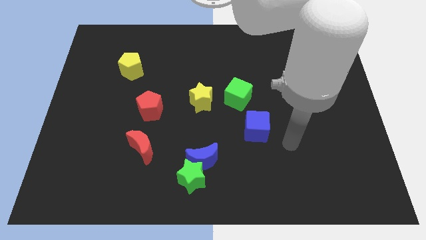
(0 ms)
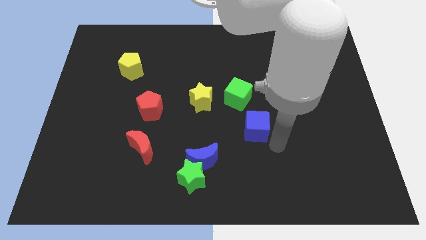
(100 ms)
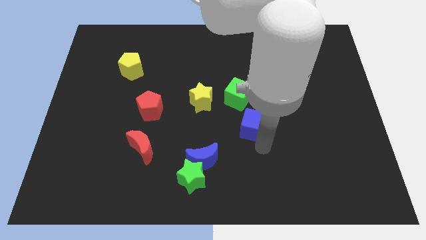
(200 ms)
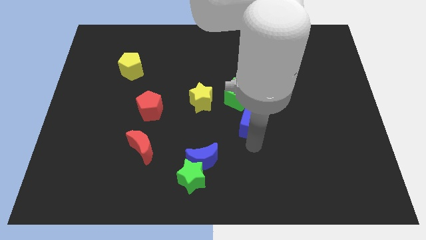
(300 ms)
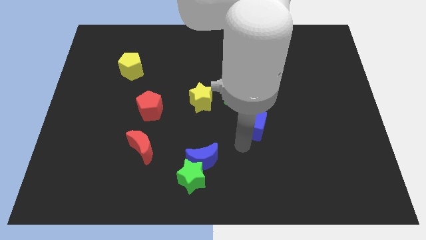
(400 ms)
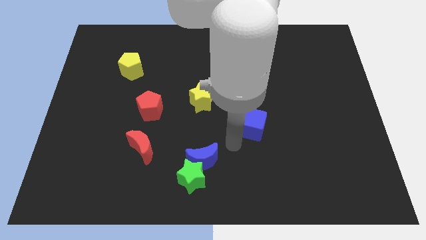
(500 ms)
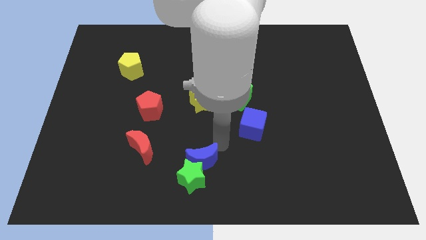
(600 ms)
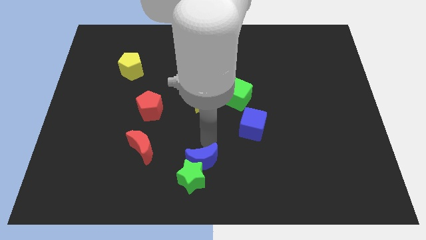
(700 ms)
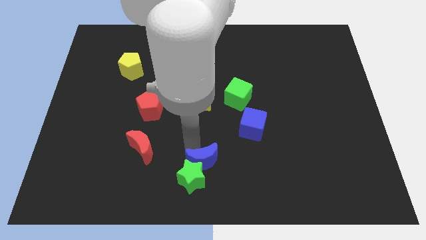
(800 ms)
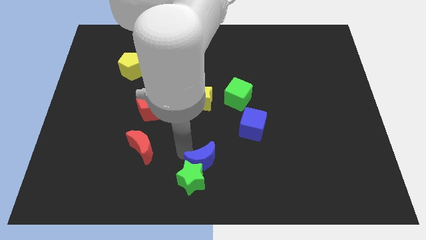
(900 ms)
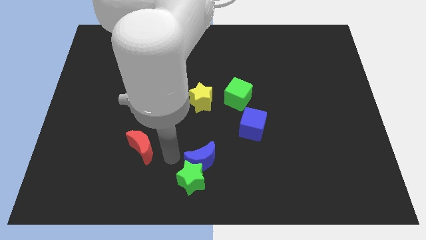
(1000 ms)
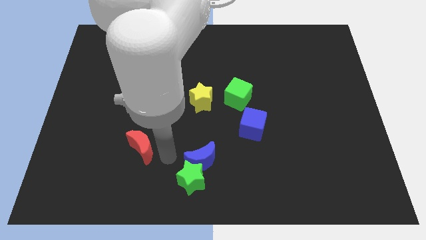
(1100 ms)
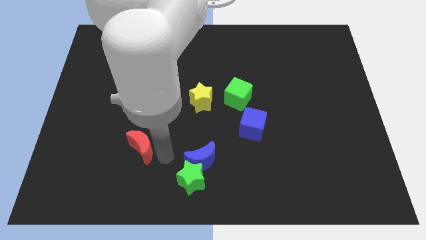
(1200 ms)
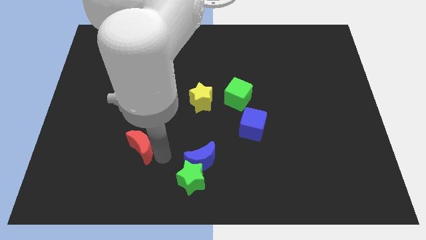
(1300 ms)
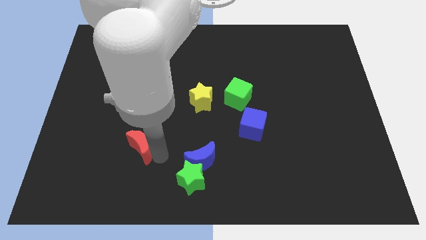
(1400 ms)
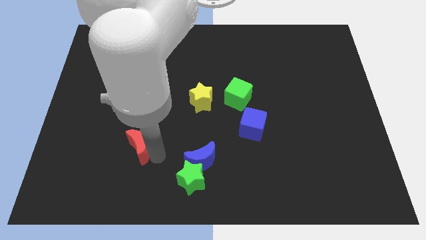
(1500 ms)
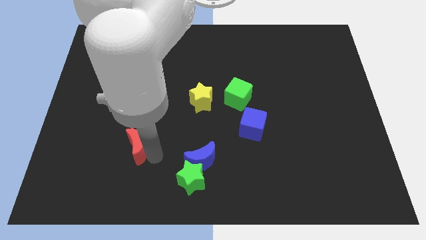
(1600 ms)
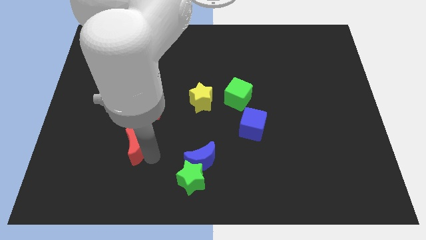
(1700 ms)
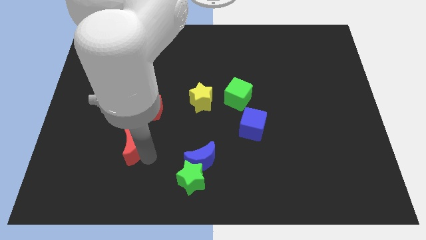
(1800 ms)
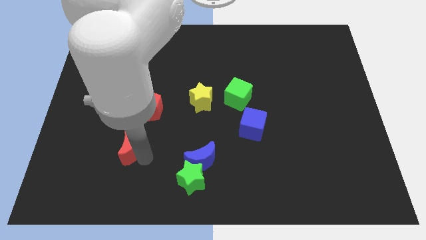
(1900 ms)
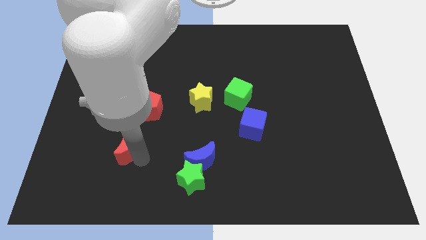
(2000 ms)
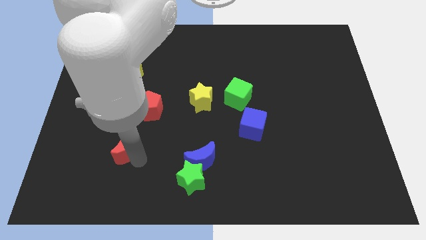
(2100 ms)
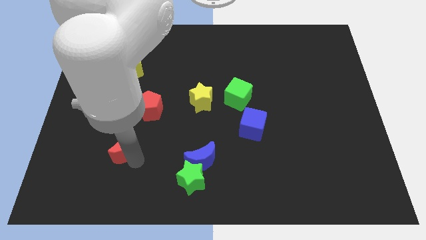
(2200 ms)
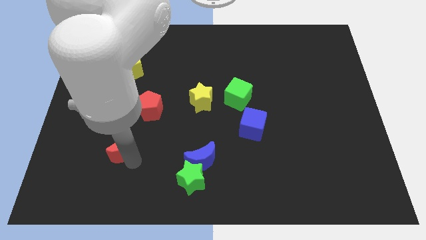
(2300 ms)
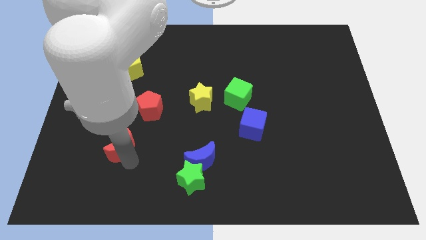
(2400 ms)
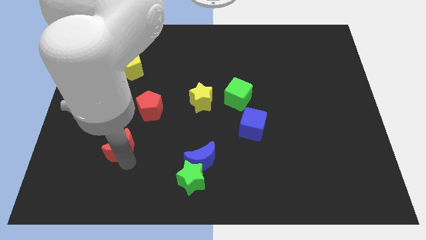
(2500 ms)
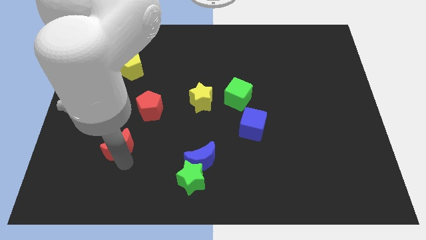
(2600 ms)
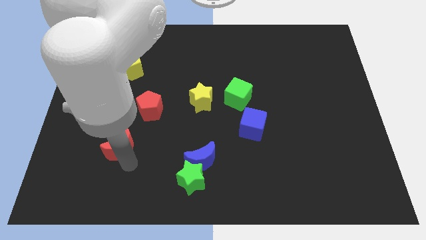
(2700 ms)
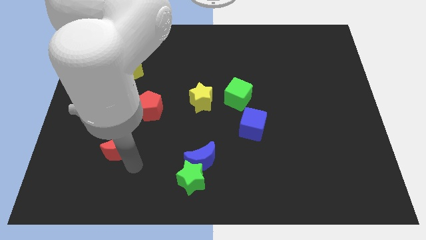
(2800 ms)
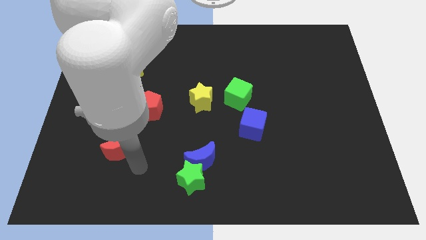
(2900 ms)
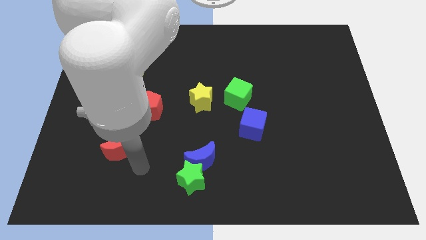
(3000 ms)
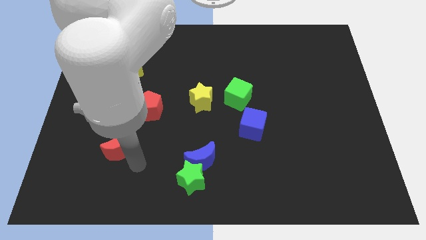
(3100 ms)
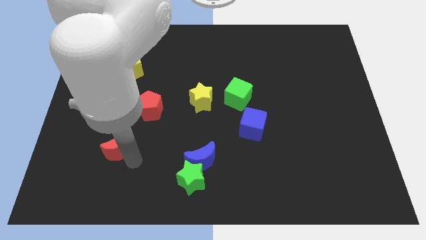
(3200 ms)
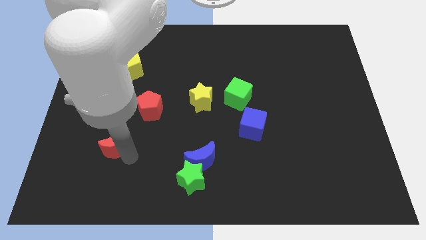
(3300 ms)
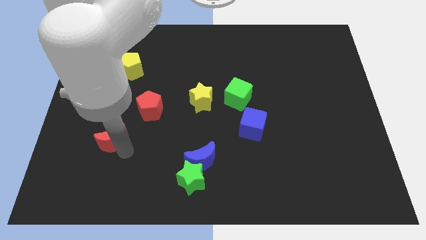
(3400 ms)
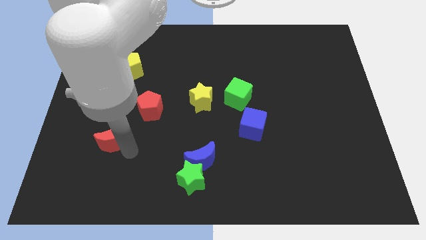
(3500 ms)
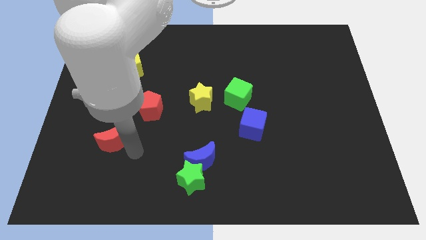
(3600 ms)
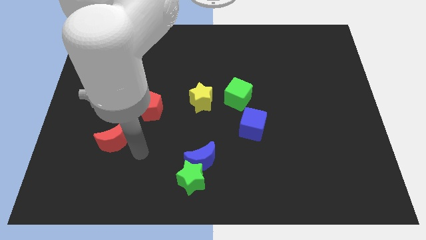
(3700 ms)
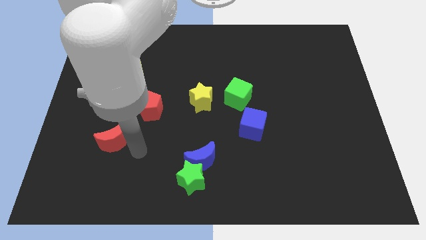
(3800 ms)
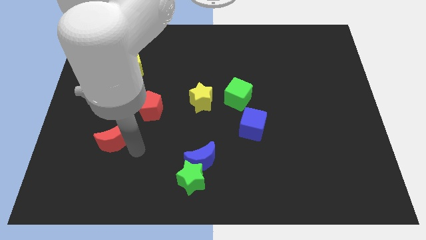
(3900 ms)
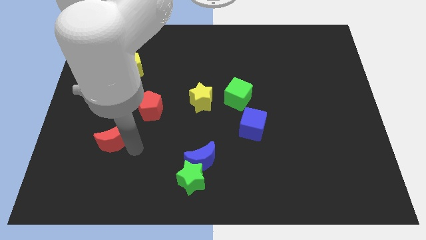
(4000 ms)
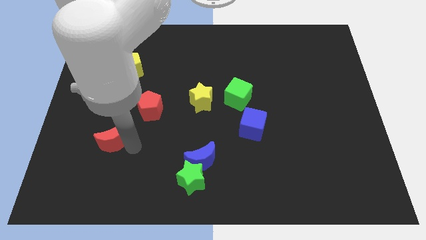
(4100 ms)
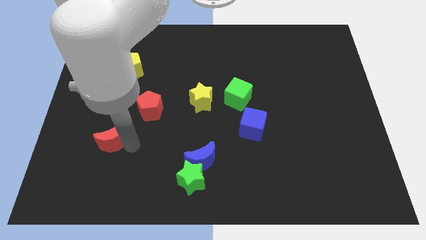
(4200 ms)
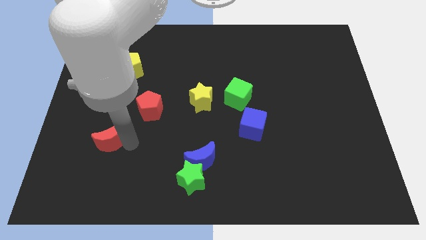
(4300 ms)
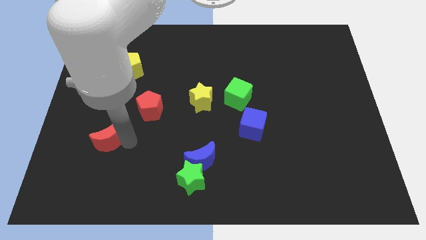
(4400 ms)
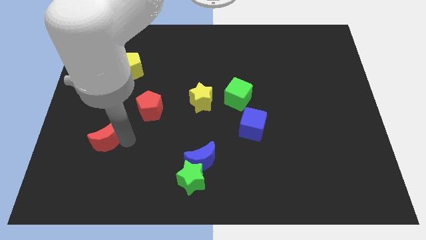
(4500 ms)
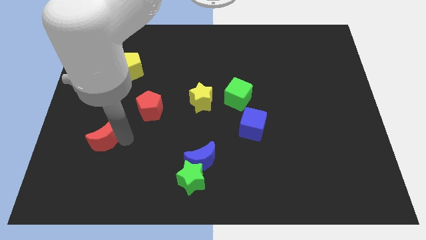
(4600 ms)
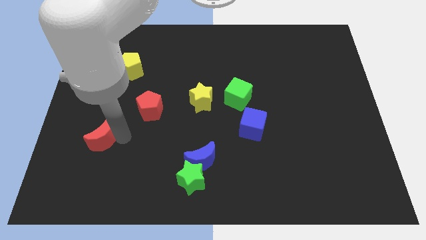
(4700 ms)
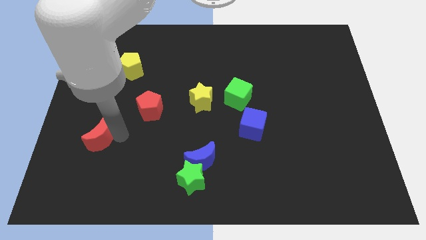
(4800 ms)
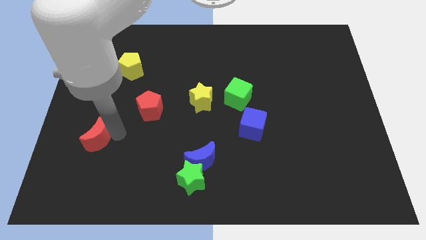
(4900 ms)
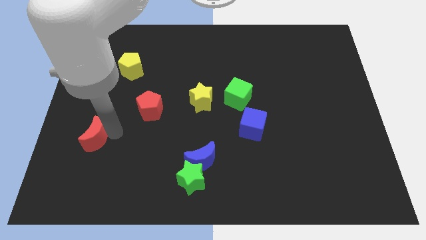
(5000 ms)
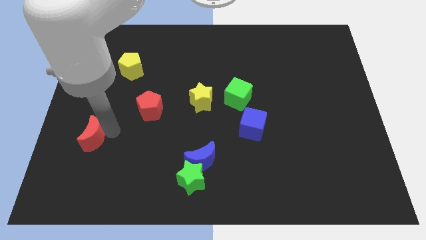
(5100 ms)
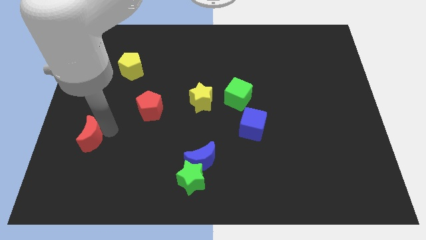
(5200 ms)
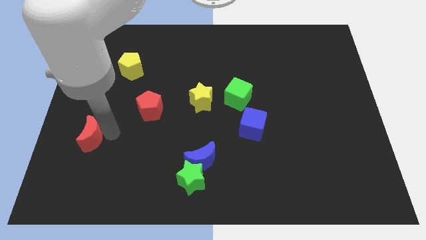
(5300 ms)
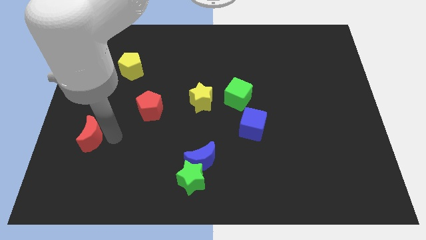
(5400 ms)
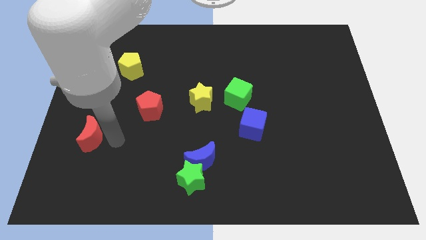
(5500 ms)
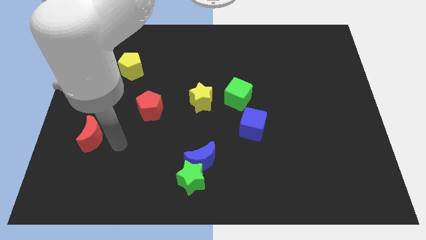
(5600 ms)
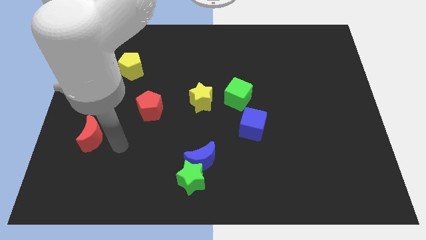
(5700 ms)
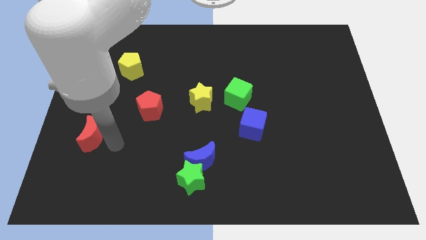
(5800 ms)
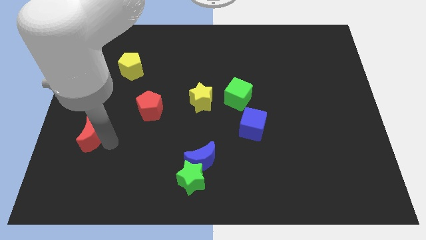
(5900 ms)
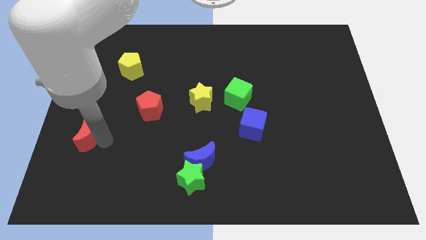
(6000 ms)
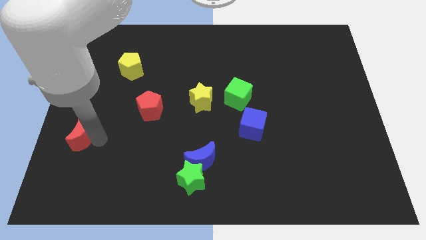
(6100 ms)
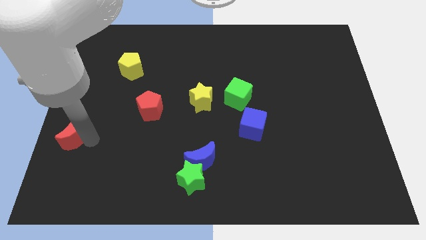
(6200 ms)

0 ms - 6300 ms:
slide the red moon to the center left

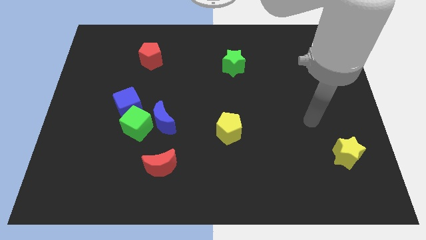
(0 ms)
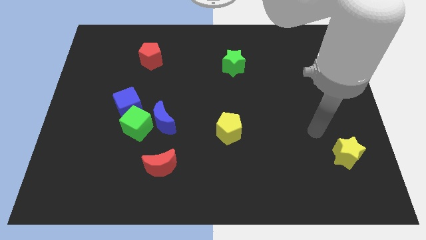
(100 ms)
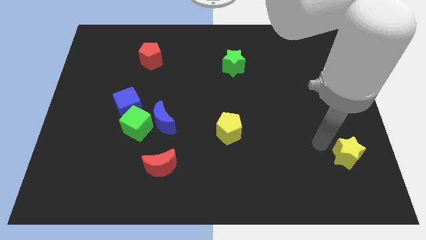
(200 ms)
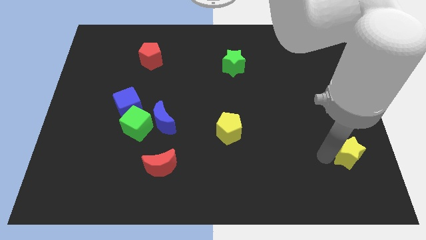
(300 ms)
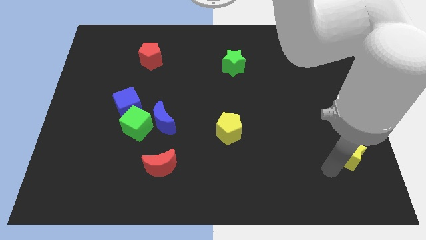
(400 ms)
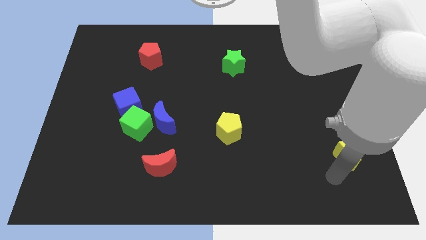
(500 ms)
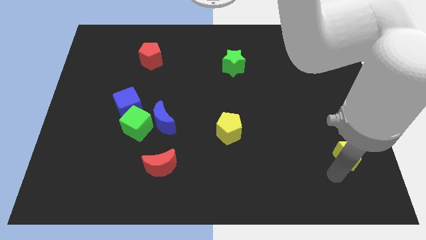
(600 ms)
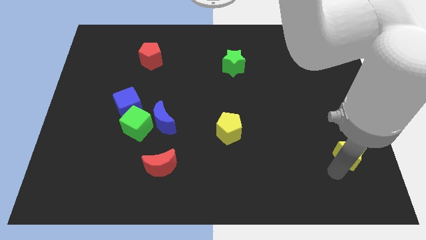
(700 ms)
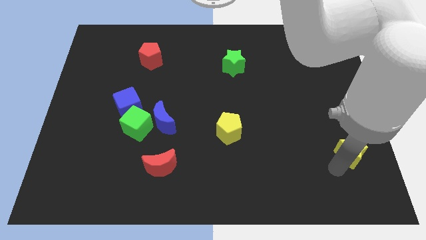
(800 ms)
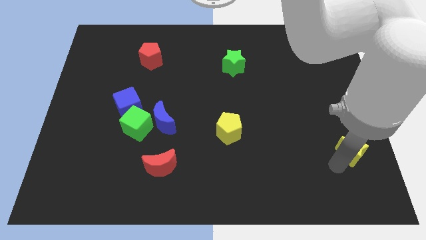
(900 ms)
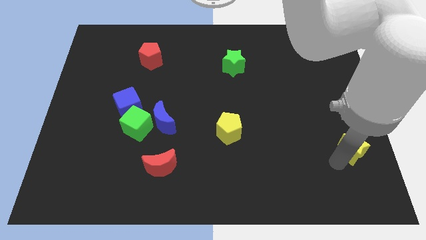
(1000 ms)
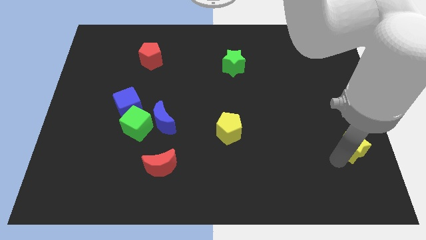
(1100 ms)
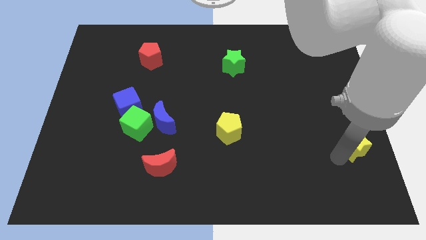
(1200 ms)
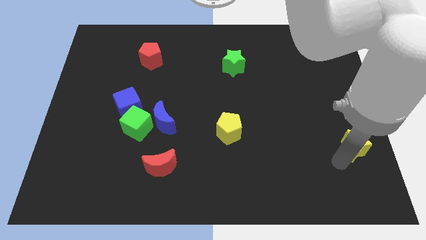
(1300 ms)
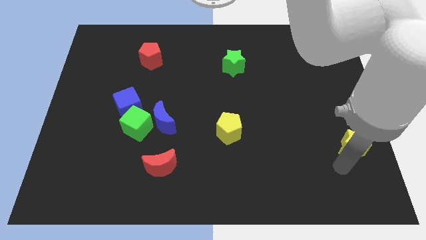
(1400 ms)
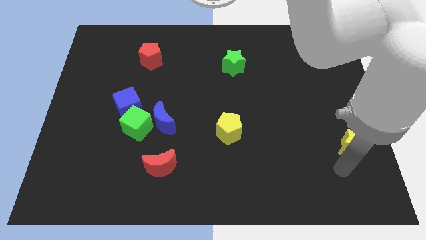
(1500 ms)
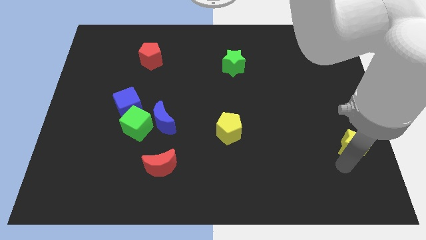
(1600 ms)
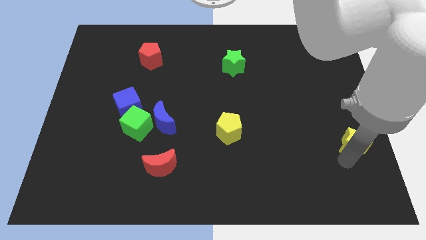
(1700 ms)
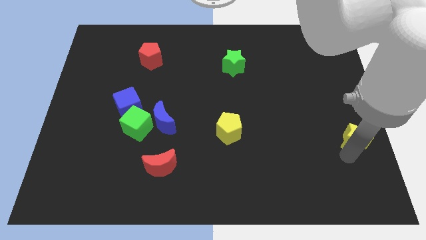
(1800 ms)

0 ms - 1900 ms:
move the yellow star to the right side
